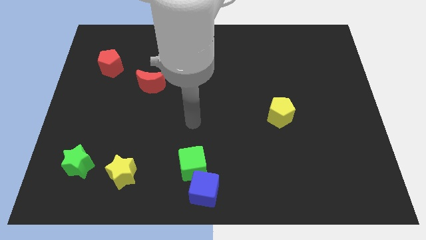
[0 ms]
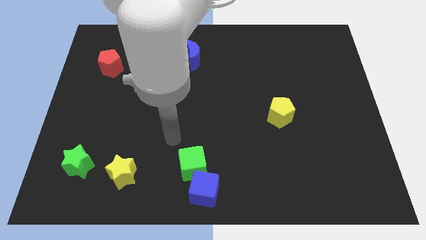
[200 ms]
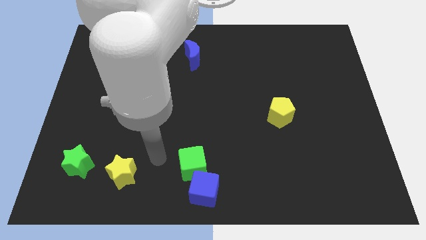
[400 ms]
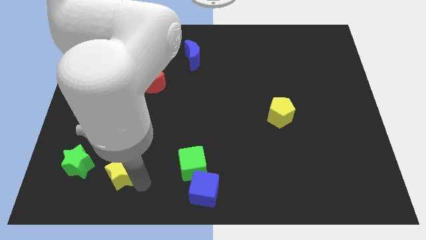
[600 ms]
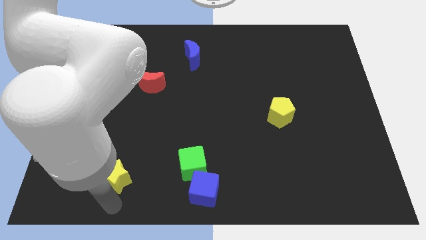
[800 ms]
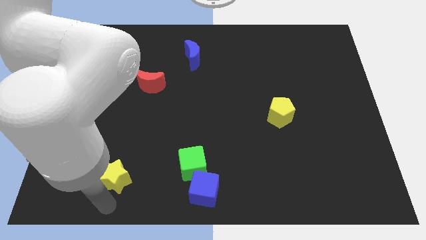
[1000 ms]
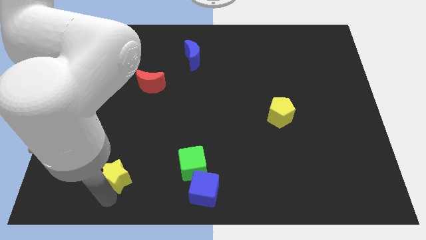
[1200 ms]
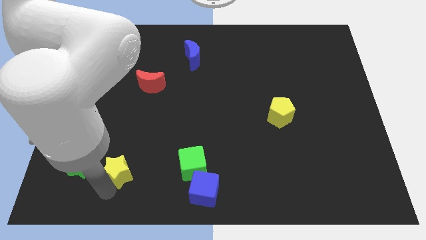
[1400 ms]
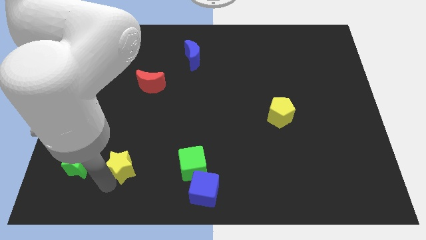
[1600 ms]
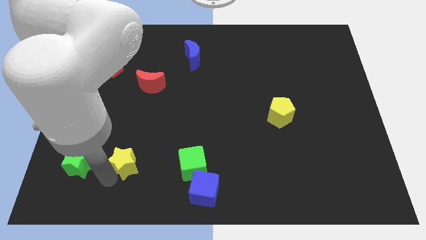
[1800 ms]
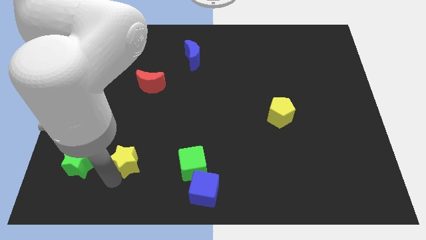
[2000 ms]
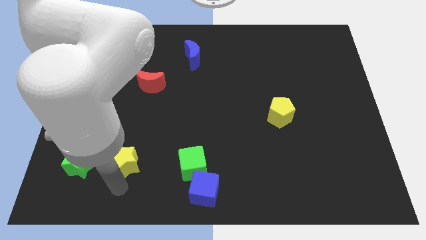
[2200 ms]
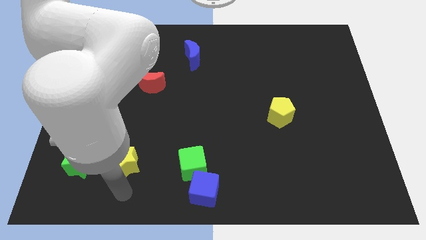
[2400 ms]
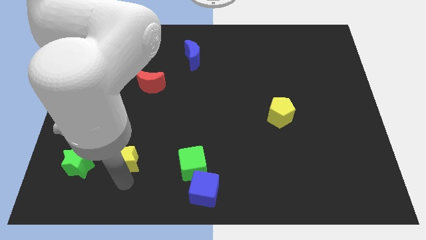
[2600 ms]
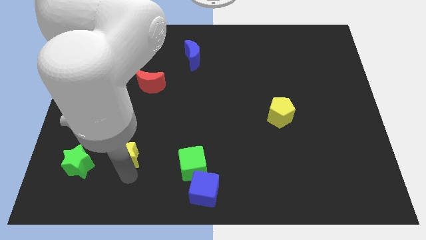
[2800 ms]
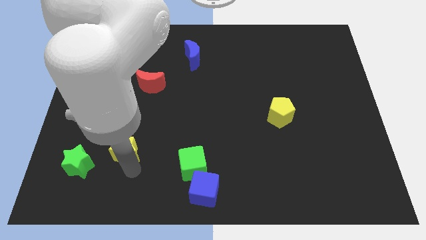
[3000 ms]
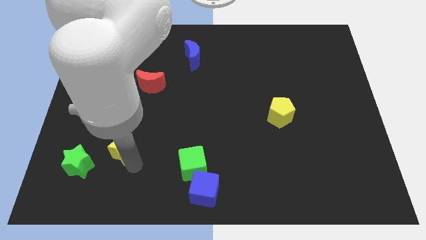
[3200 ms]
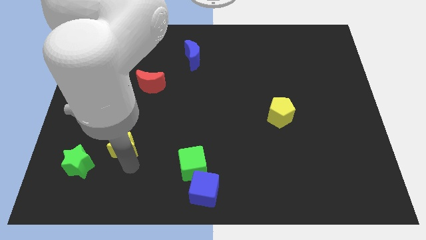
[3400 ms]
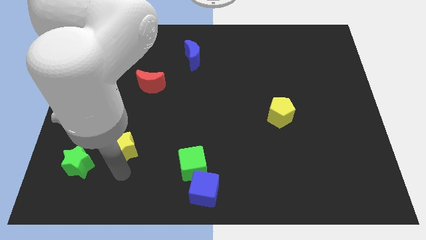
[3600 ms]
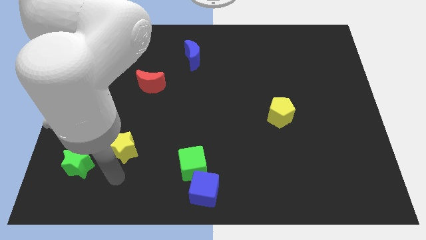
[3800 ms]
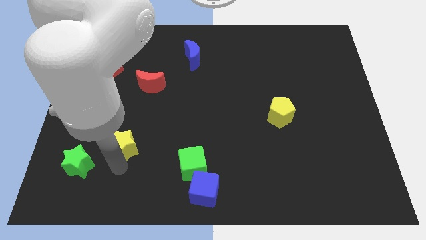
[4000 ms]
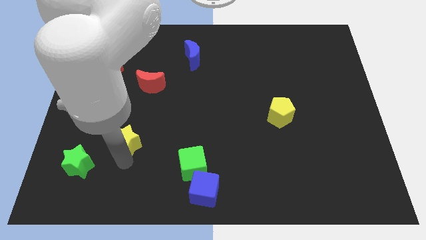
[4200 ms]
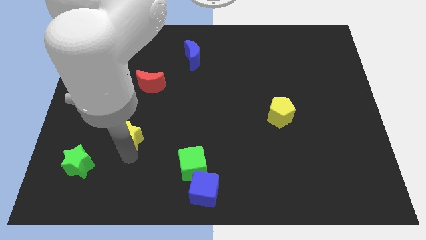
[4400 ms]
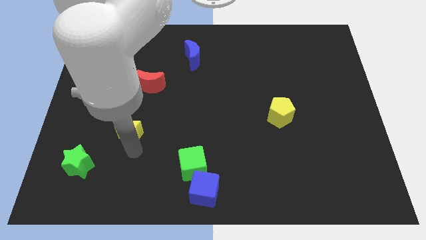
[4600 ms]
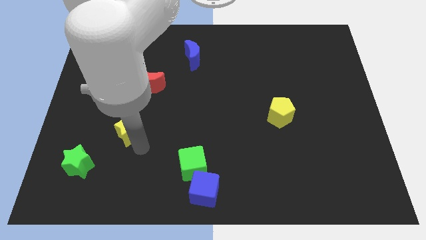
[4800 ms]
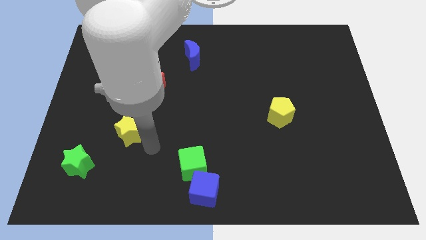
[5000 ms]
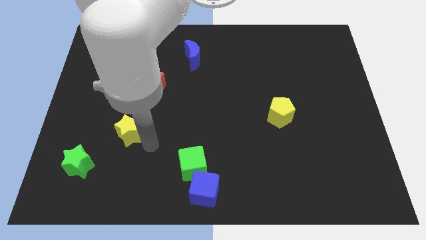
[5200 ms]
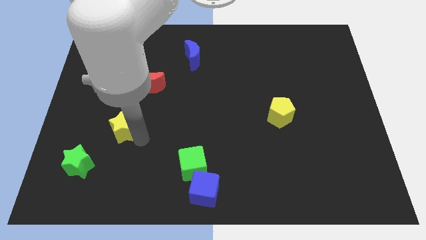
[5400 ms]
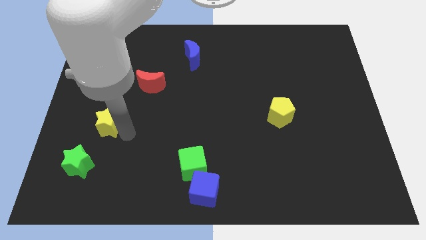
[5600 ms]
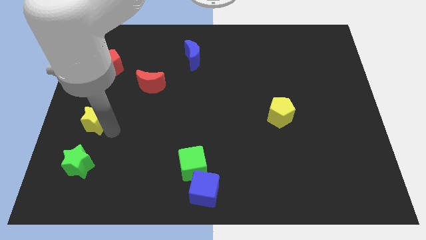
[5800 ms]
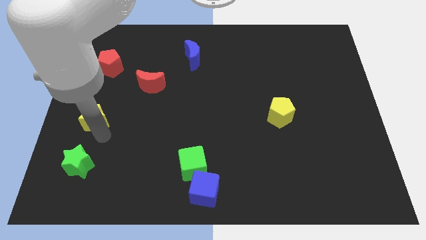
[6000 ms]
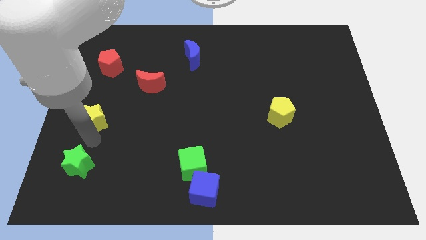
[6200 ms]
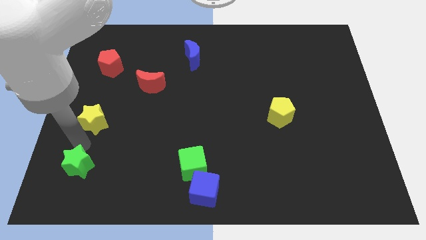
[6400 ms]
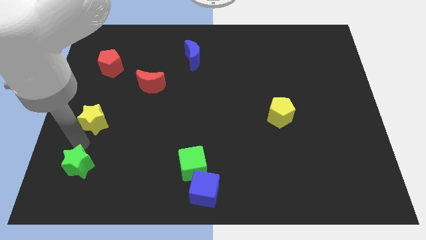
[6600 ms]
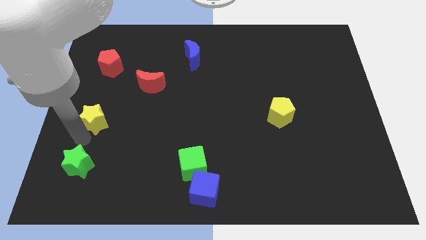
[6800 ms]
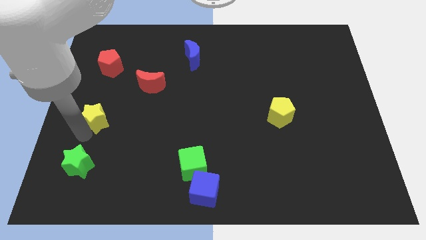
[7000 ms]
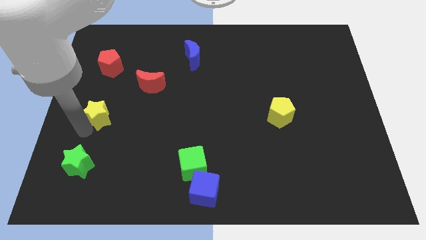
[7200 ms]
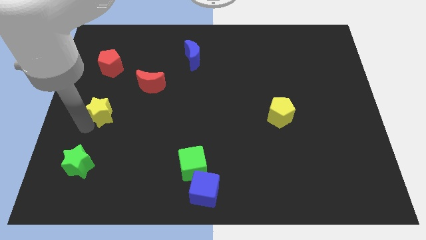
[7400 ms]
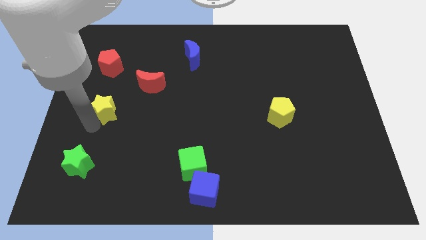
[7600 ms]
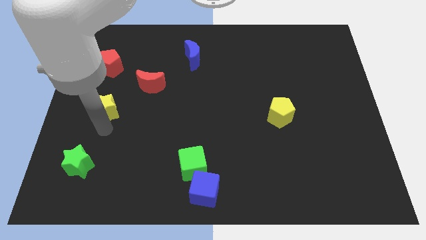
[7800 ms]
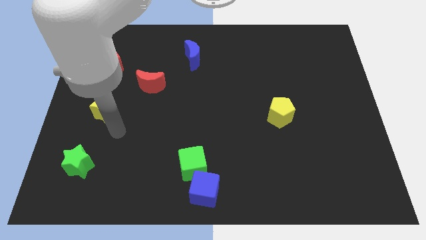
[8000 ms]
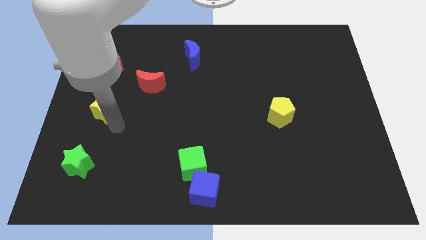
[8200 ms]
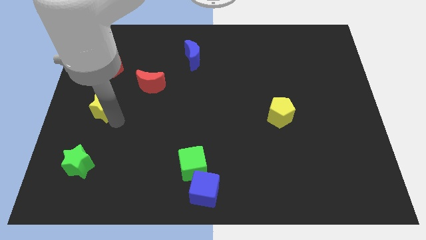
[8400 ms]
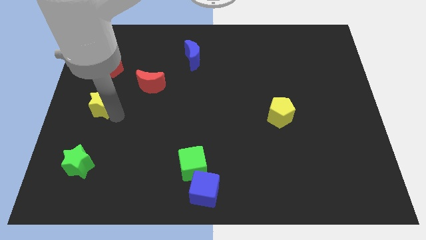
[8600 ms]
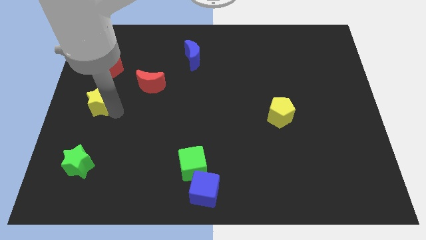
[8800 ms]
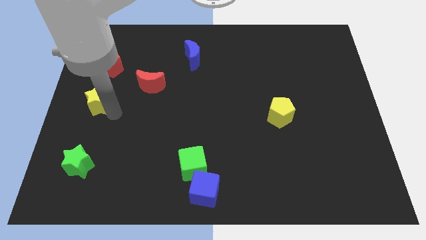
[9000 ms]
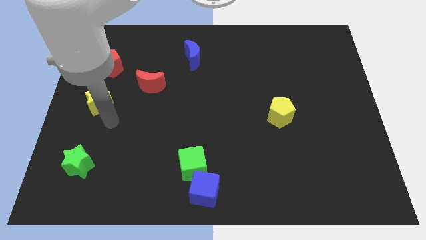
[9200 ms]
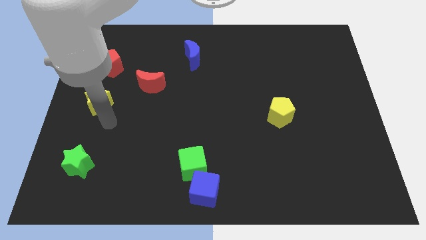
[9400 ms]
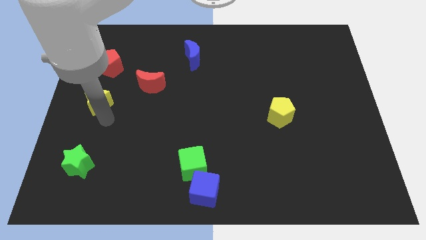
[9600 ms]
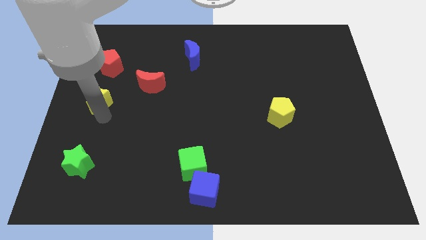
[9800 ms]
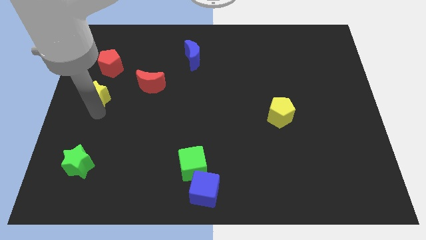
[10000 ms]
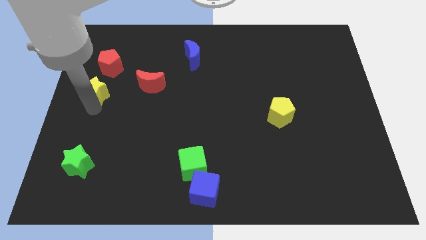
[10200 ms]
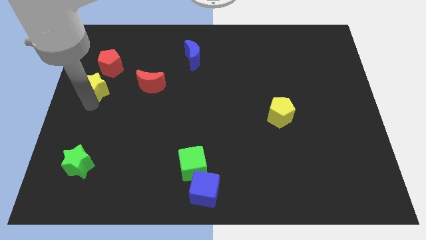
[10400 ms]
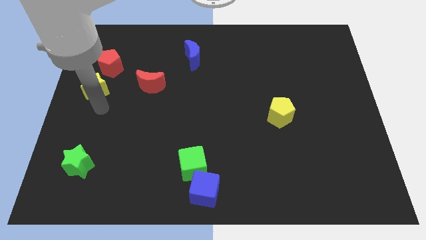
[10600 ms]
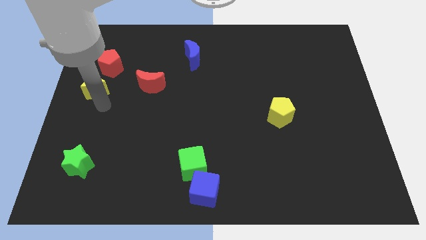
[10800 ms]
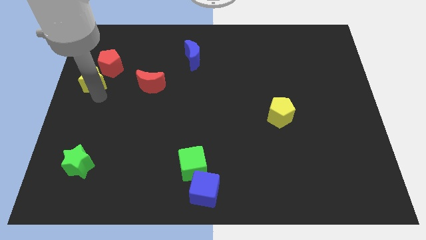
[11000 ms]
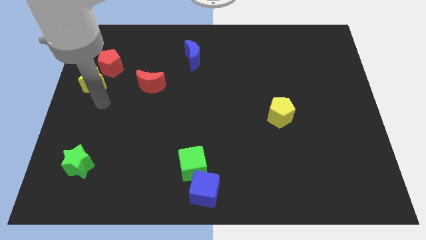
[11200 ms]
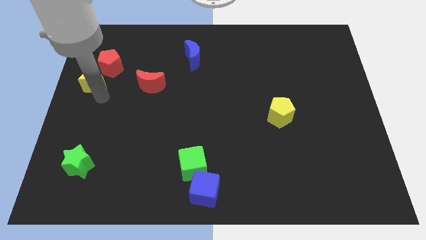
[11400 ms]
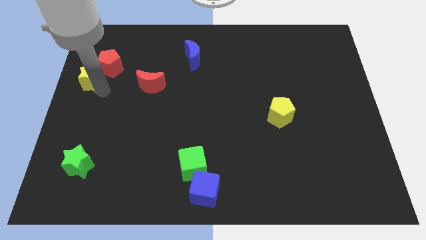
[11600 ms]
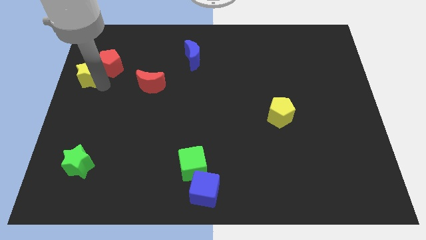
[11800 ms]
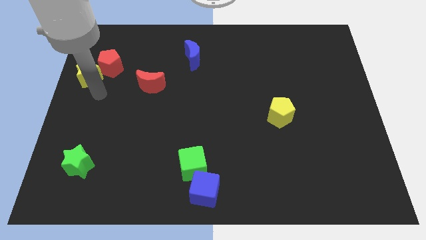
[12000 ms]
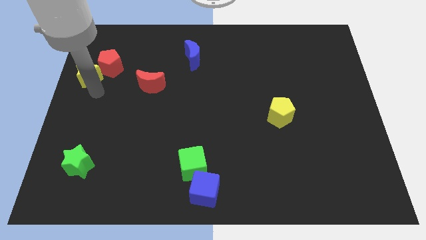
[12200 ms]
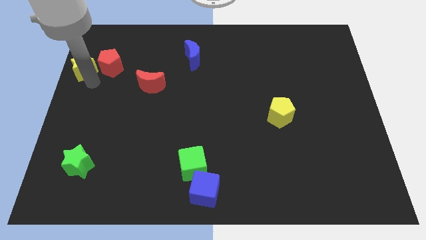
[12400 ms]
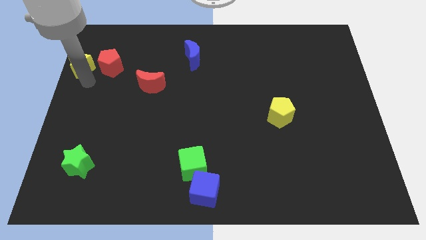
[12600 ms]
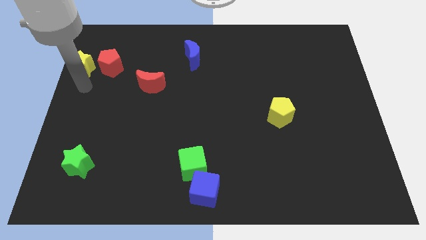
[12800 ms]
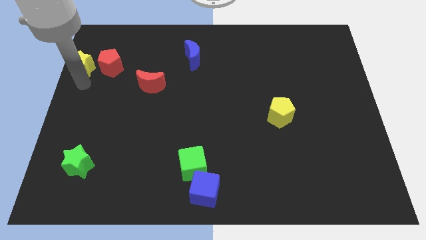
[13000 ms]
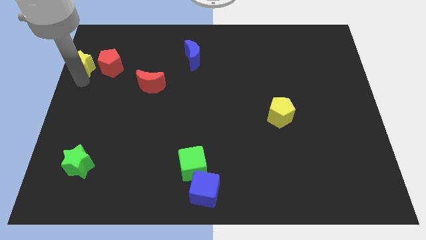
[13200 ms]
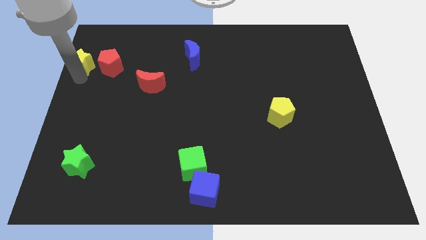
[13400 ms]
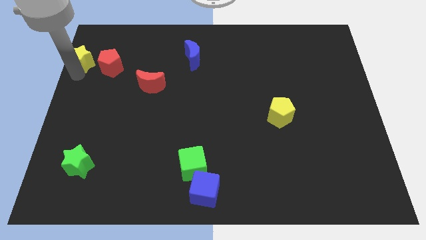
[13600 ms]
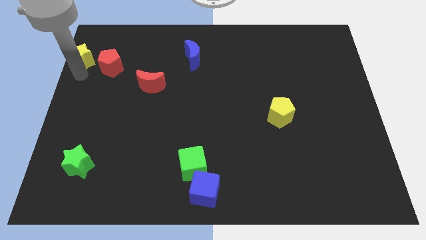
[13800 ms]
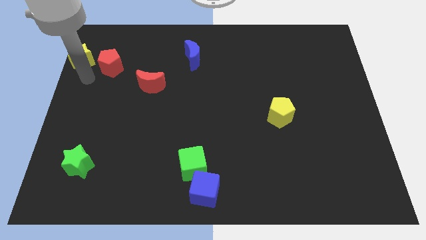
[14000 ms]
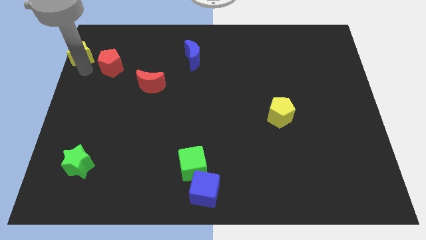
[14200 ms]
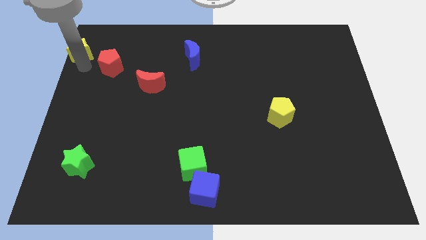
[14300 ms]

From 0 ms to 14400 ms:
slide the yellow star to the upper left corner

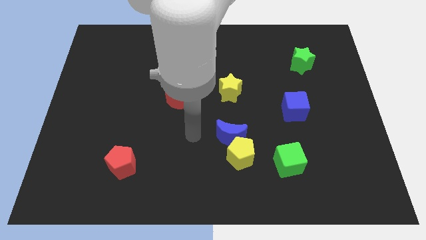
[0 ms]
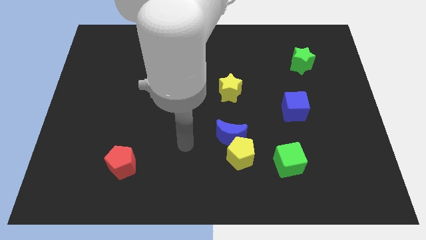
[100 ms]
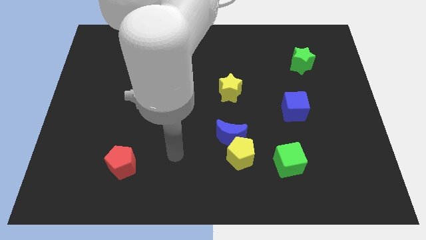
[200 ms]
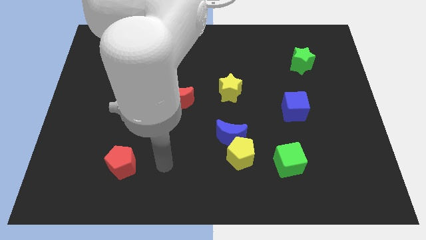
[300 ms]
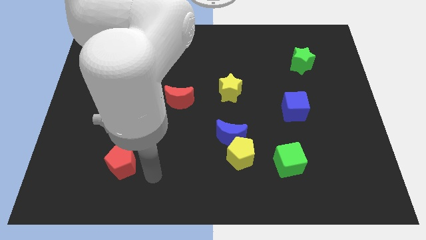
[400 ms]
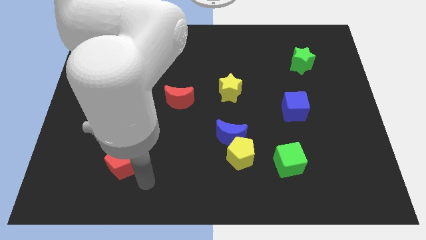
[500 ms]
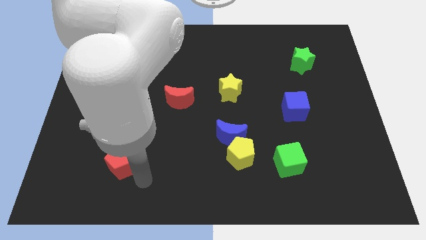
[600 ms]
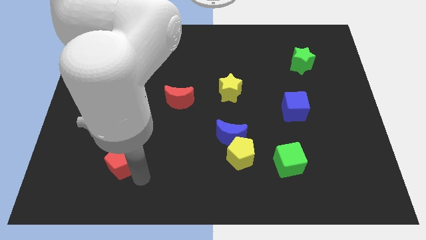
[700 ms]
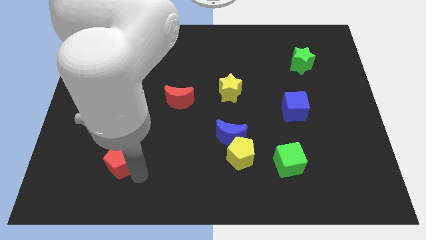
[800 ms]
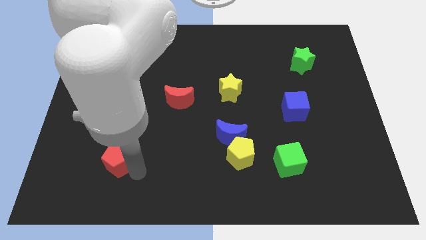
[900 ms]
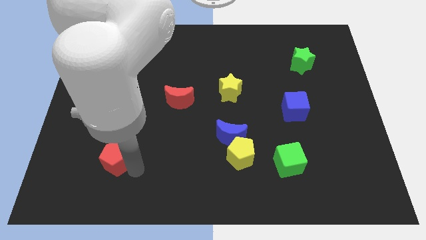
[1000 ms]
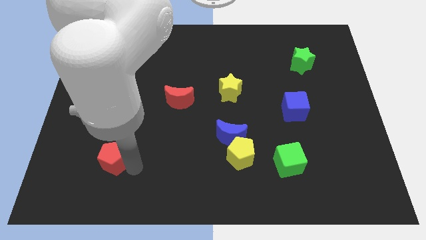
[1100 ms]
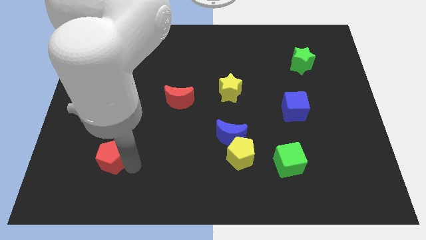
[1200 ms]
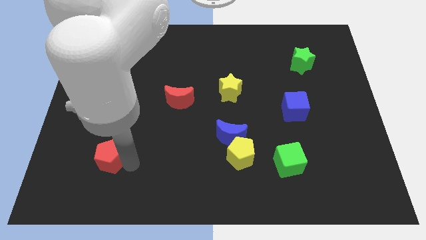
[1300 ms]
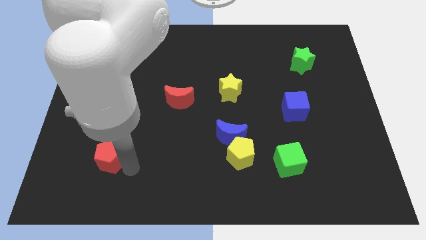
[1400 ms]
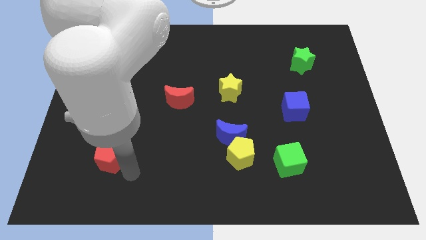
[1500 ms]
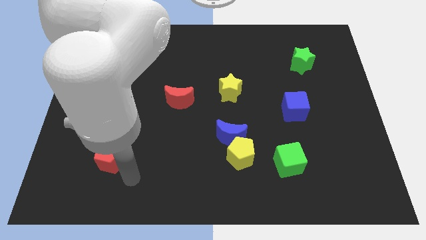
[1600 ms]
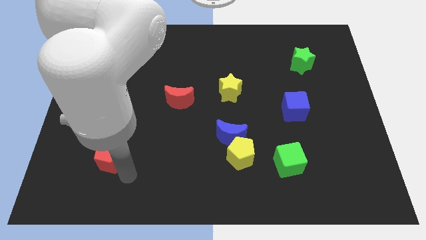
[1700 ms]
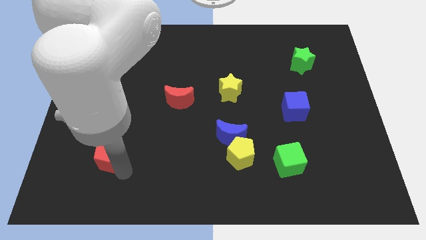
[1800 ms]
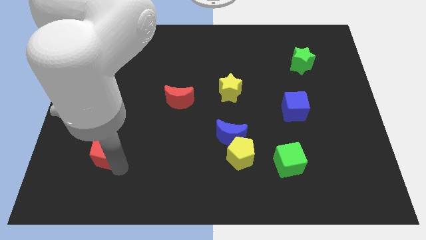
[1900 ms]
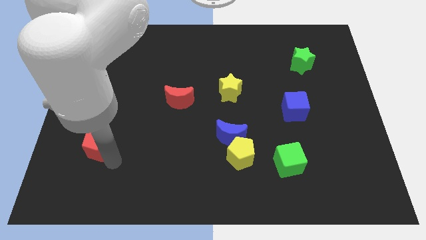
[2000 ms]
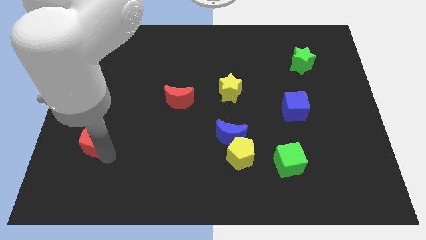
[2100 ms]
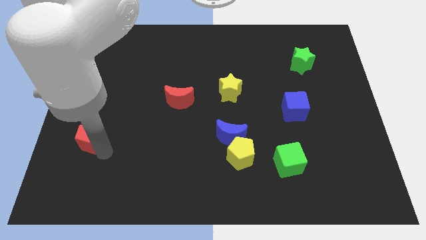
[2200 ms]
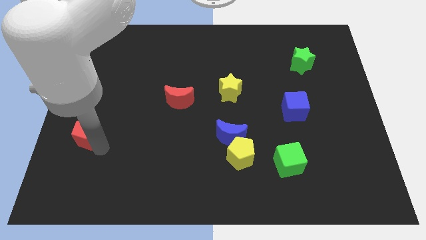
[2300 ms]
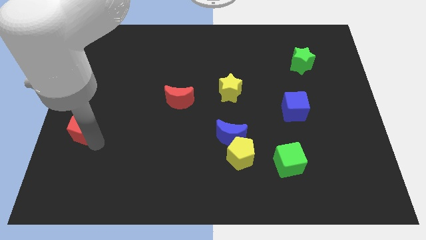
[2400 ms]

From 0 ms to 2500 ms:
move the red pentagon to the left side
